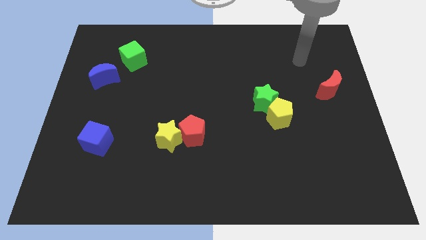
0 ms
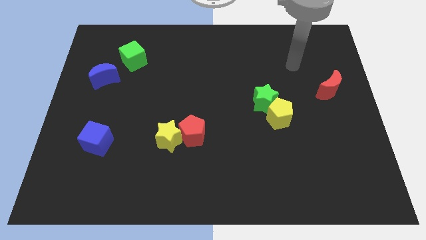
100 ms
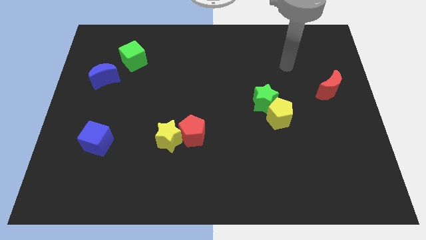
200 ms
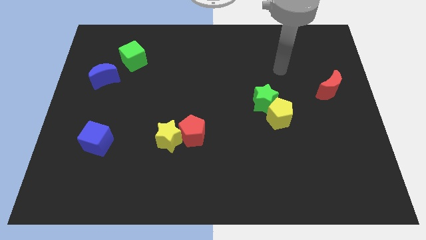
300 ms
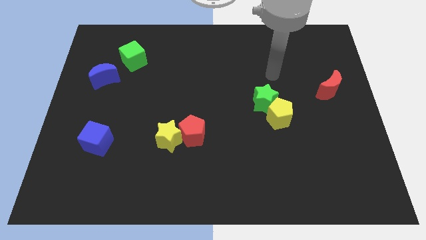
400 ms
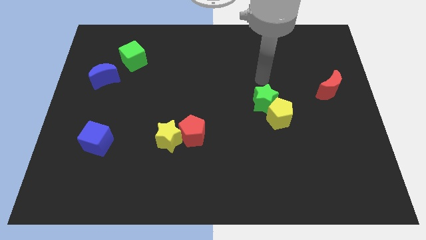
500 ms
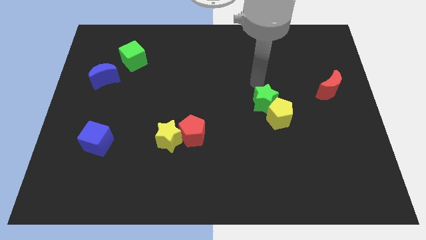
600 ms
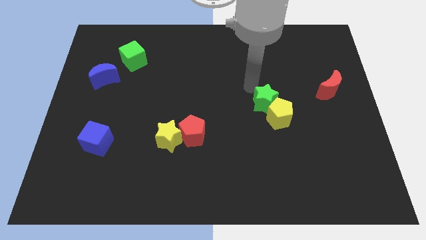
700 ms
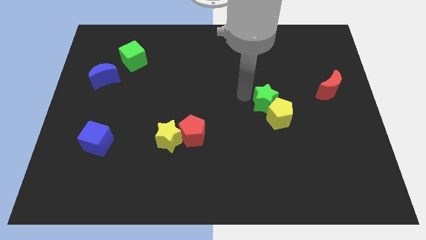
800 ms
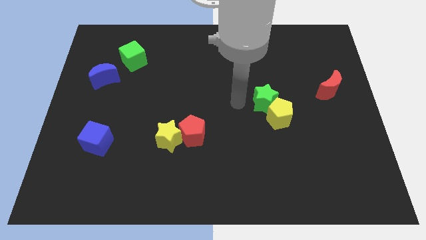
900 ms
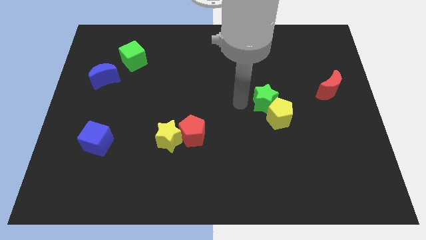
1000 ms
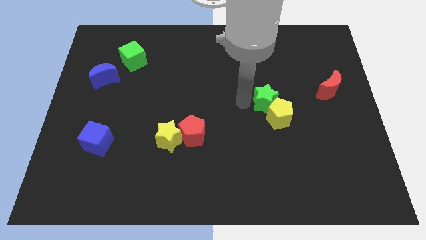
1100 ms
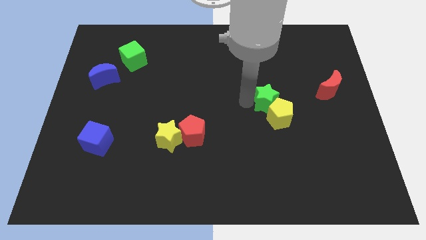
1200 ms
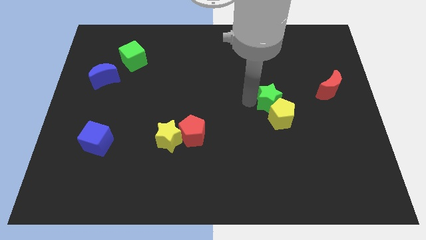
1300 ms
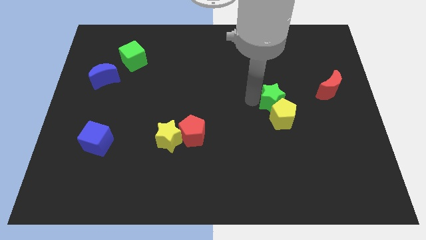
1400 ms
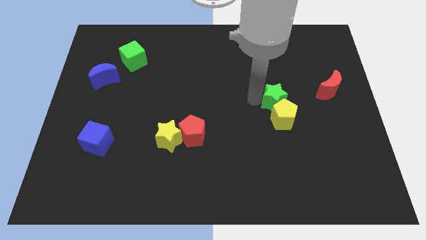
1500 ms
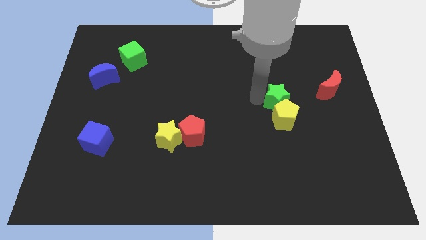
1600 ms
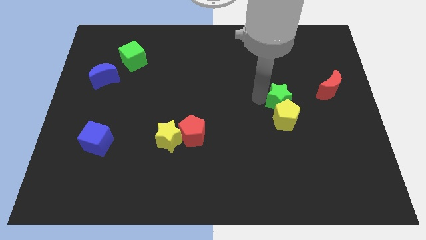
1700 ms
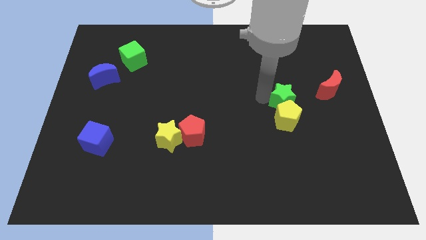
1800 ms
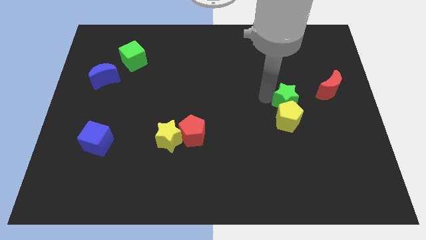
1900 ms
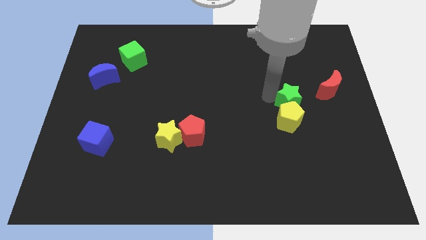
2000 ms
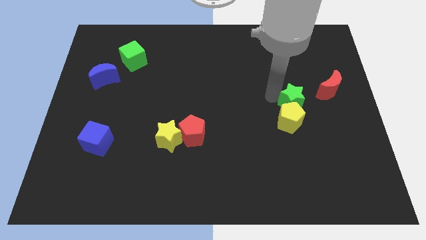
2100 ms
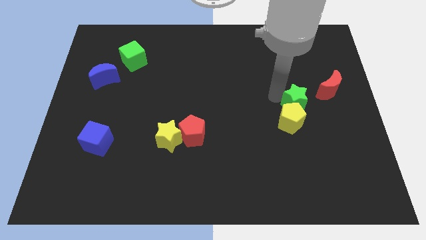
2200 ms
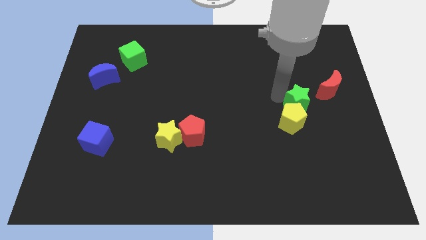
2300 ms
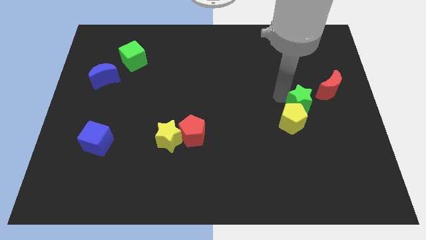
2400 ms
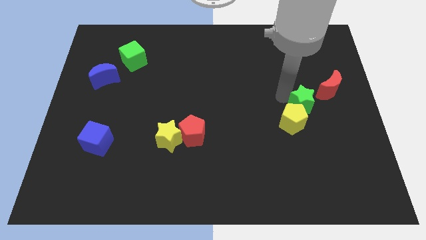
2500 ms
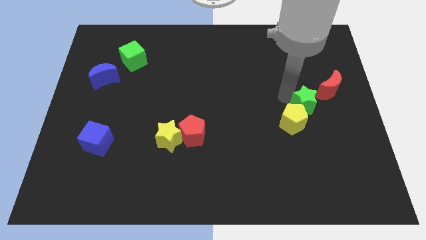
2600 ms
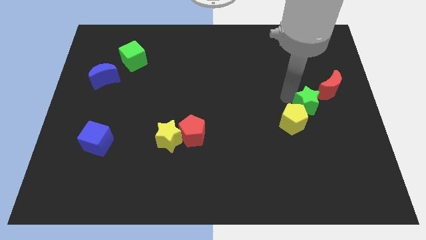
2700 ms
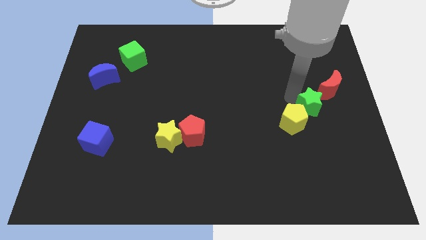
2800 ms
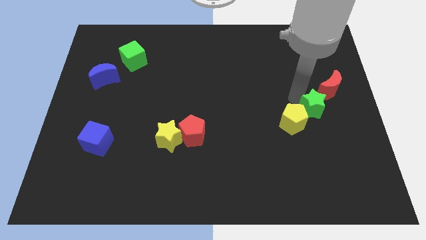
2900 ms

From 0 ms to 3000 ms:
slide the green star a little bit downwards and right diagonally

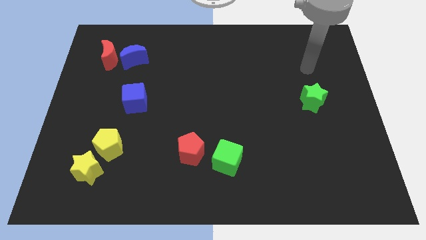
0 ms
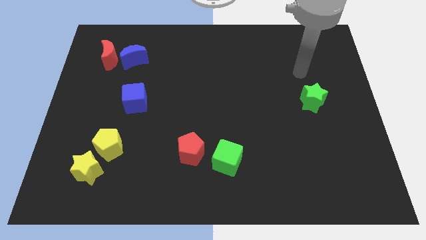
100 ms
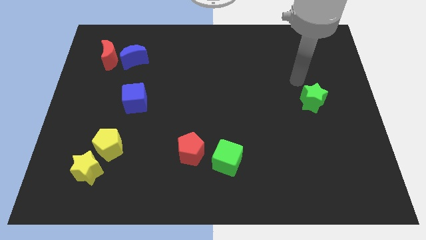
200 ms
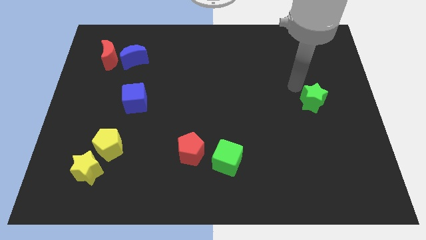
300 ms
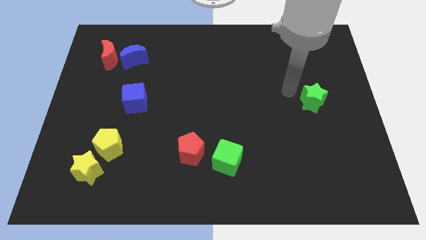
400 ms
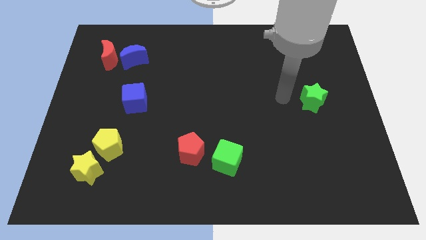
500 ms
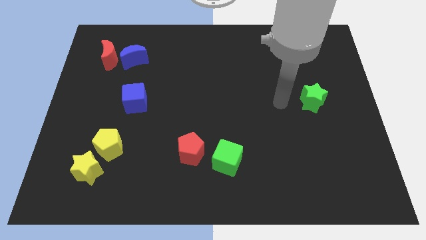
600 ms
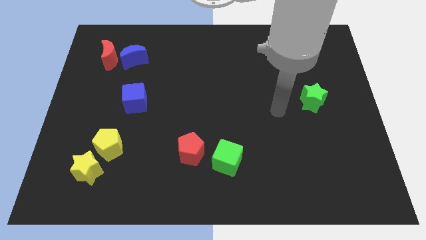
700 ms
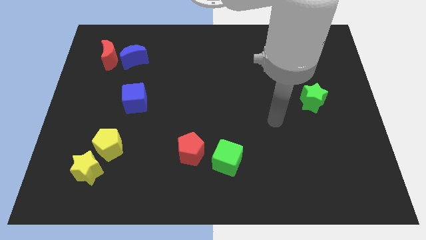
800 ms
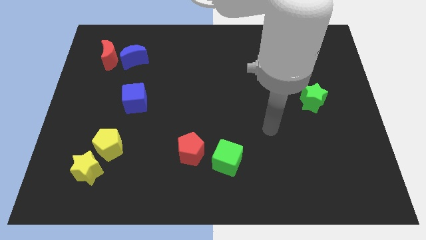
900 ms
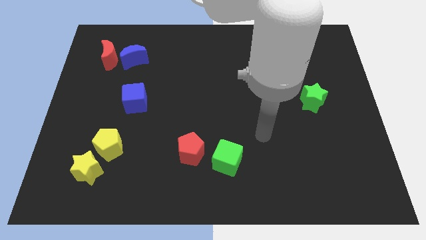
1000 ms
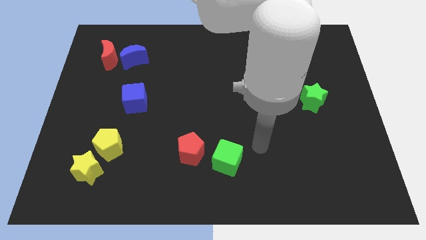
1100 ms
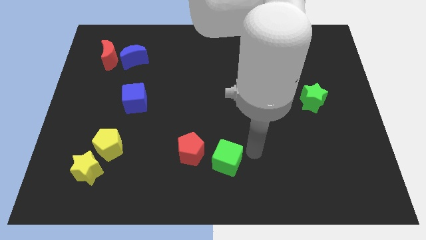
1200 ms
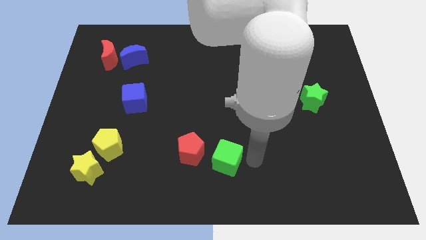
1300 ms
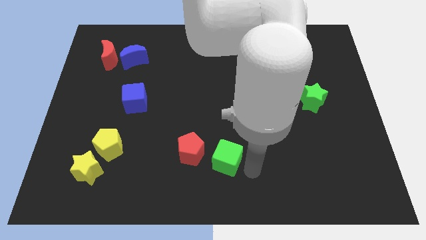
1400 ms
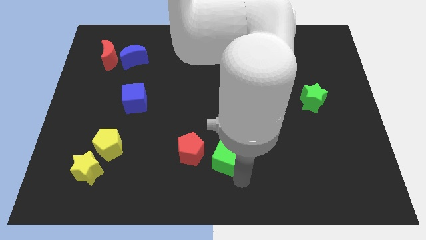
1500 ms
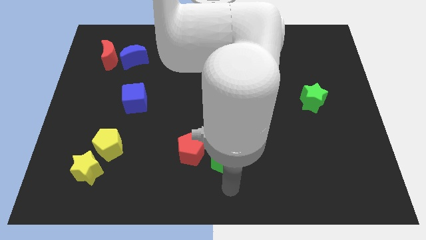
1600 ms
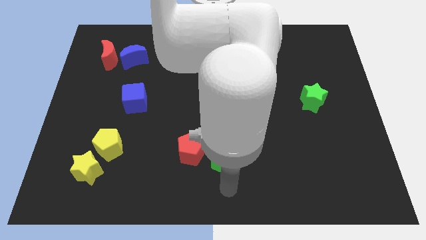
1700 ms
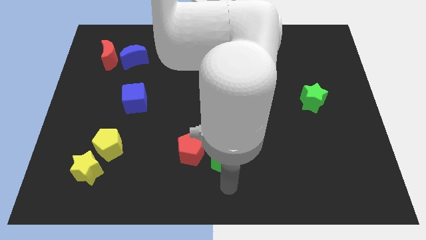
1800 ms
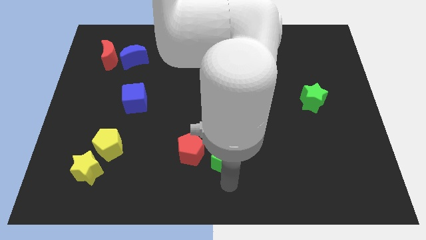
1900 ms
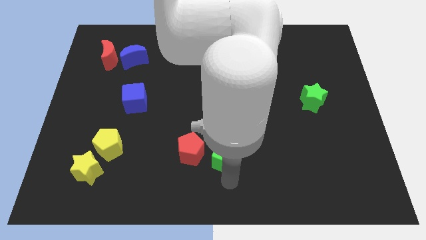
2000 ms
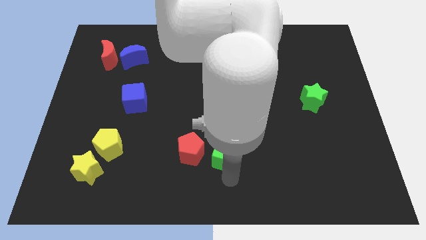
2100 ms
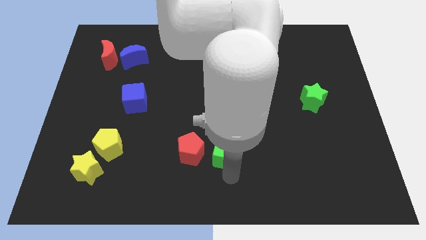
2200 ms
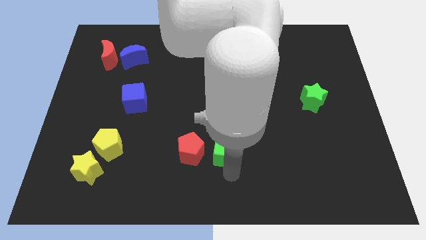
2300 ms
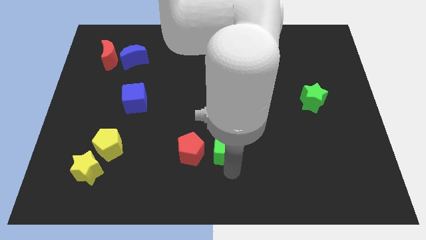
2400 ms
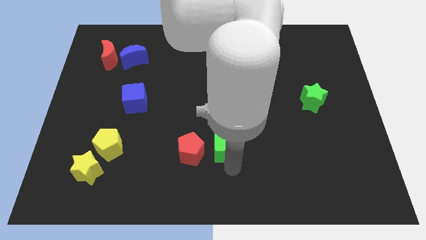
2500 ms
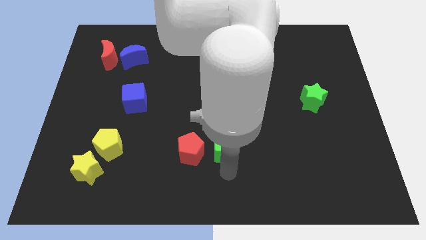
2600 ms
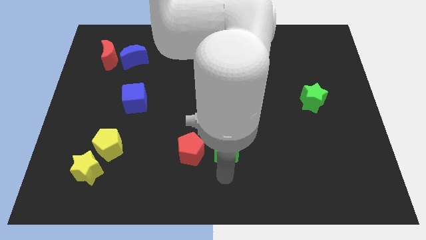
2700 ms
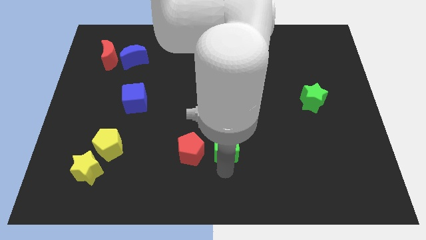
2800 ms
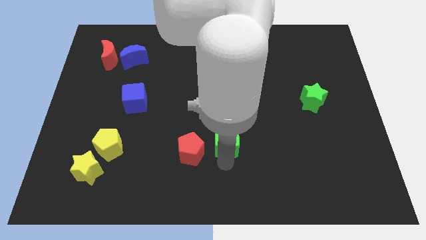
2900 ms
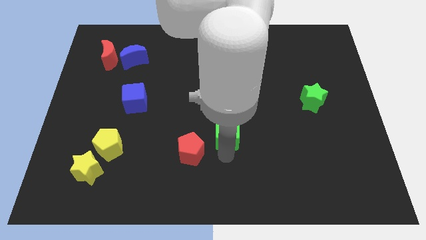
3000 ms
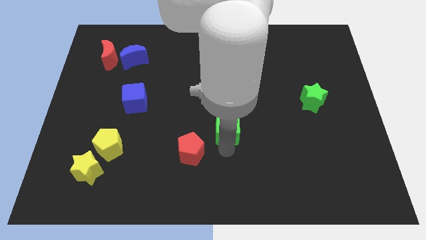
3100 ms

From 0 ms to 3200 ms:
slide the green cube upwards a bit

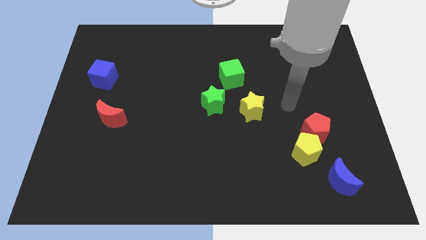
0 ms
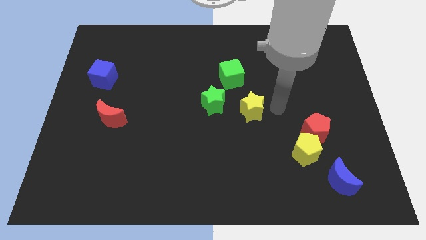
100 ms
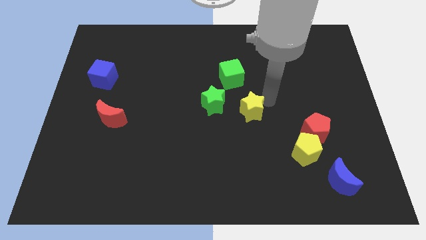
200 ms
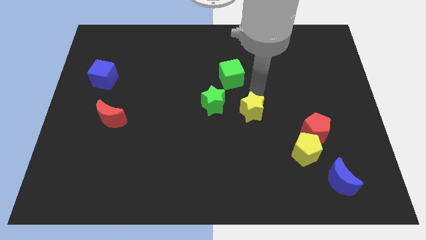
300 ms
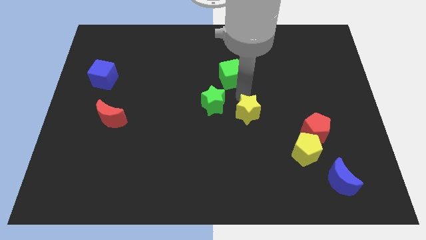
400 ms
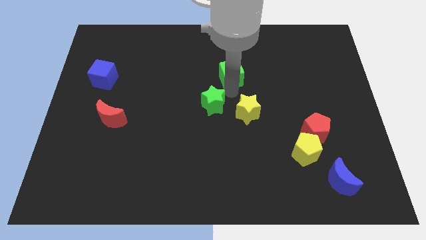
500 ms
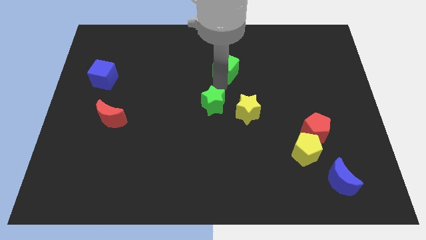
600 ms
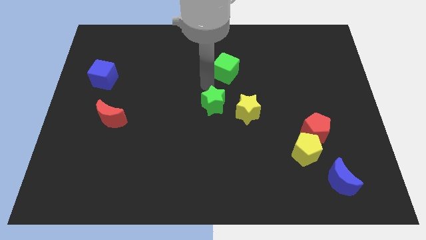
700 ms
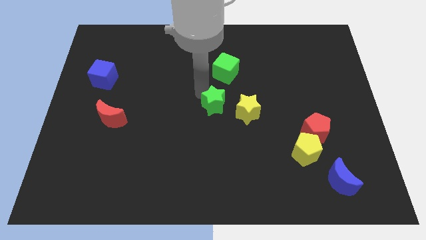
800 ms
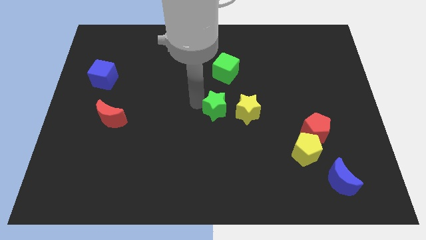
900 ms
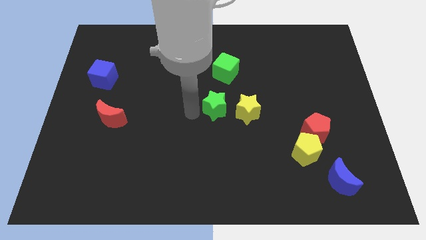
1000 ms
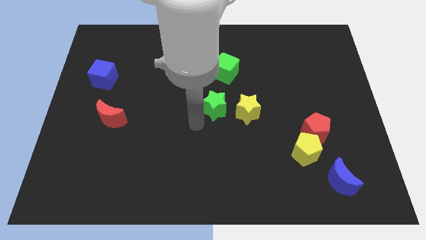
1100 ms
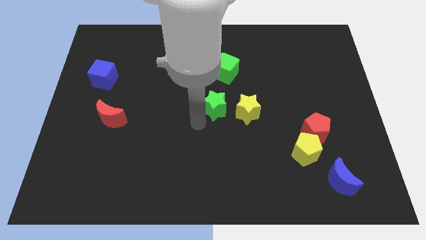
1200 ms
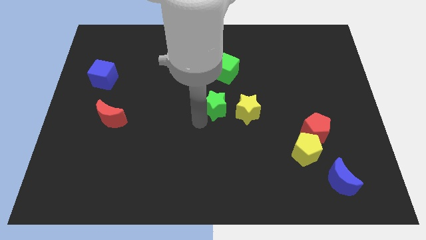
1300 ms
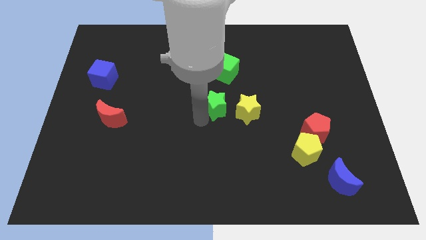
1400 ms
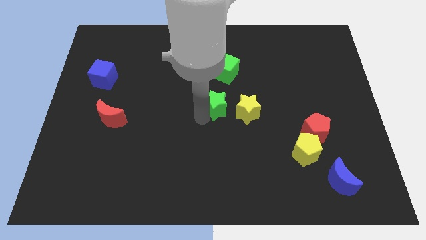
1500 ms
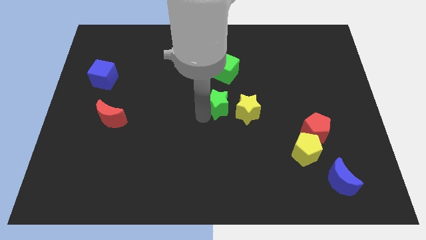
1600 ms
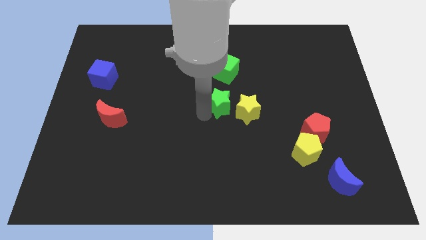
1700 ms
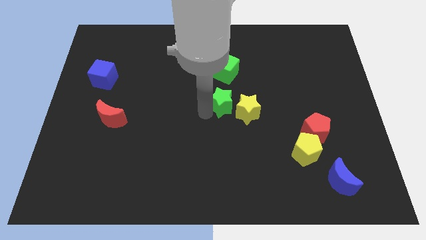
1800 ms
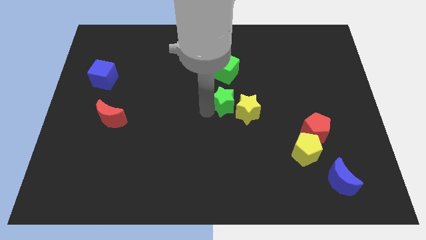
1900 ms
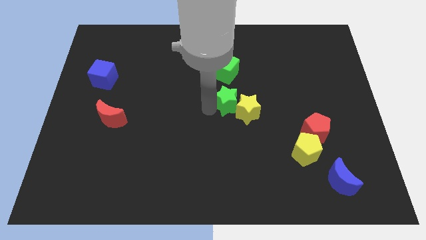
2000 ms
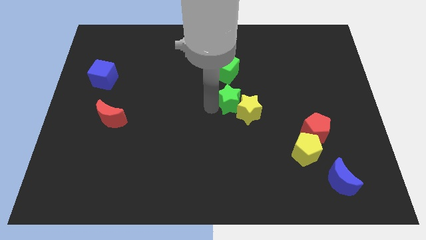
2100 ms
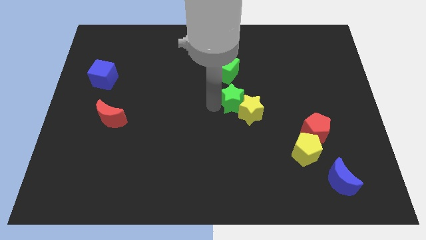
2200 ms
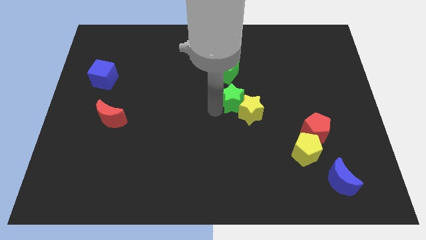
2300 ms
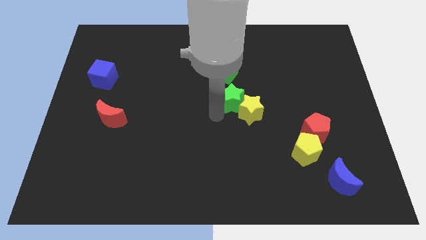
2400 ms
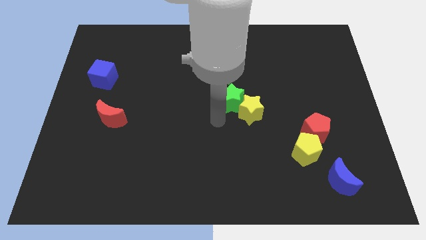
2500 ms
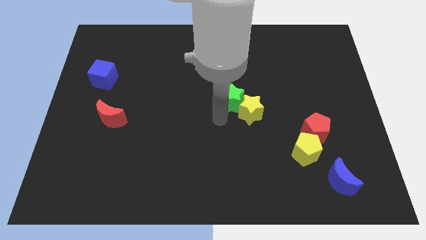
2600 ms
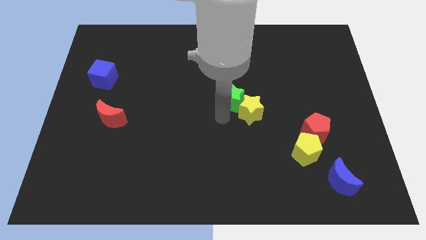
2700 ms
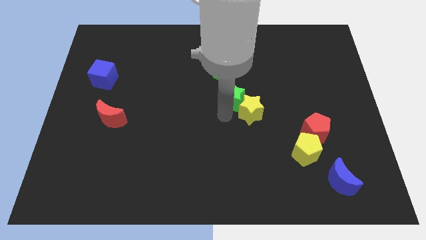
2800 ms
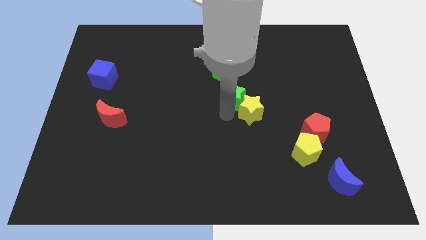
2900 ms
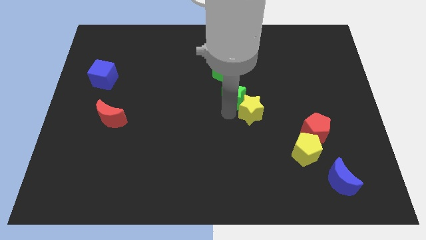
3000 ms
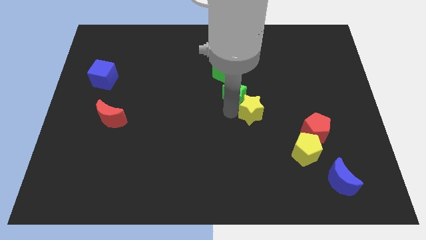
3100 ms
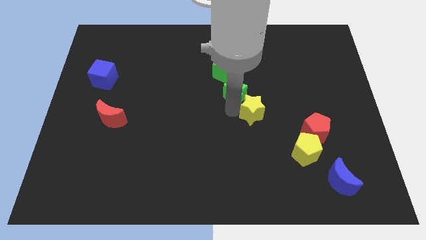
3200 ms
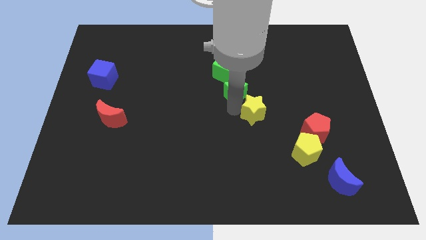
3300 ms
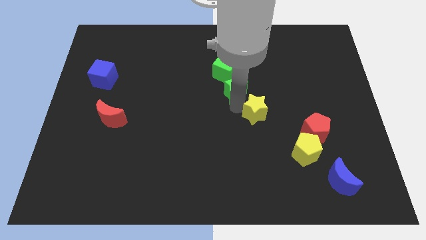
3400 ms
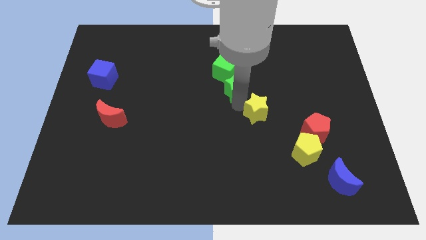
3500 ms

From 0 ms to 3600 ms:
slide the green star slightly diagonally up and right
